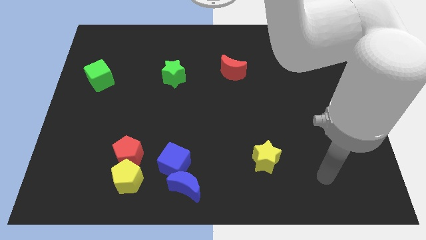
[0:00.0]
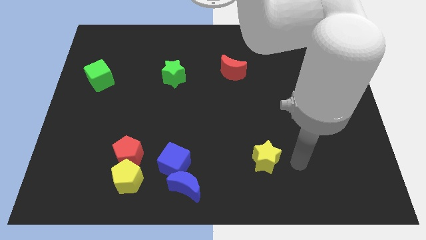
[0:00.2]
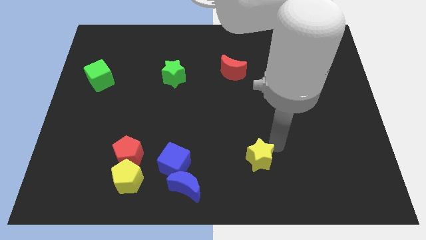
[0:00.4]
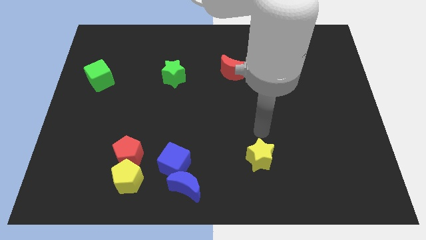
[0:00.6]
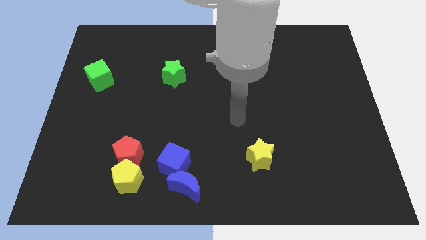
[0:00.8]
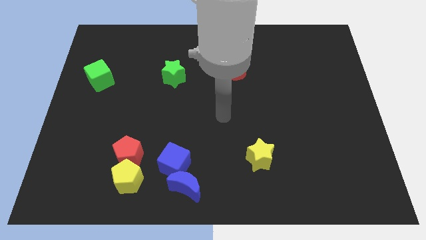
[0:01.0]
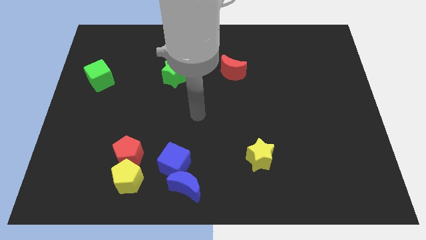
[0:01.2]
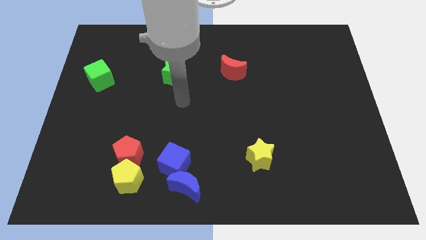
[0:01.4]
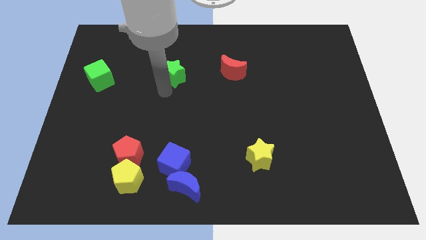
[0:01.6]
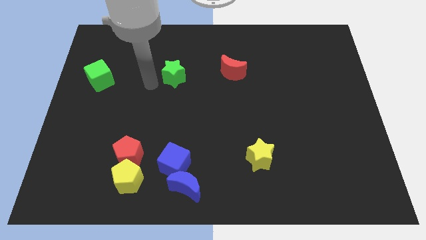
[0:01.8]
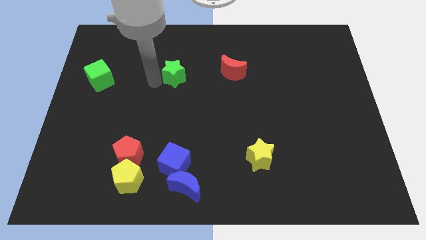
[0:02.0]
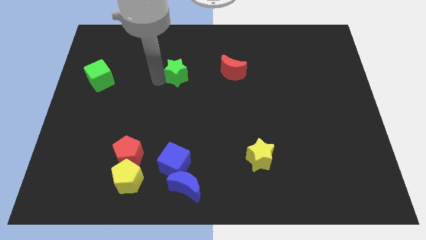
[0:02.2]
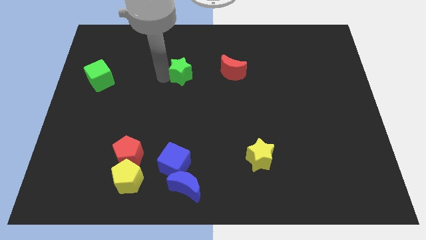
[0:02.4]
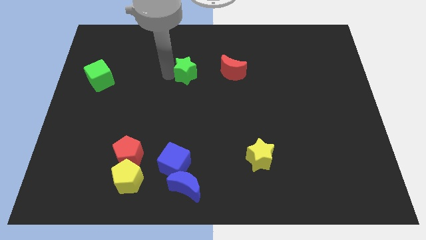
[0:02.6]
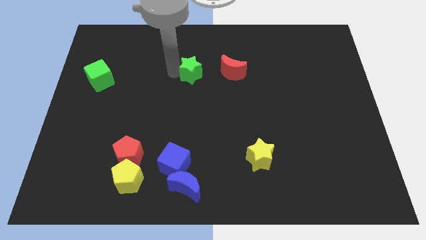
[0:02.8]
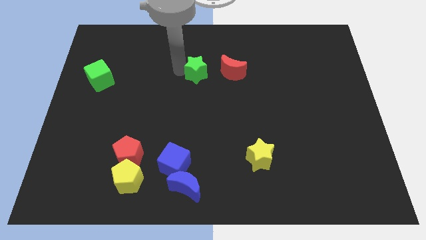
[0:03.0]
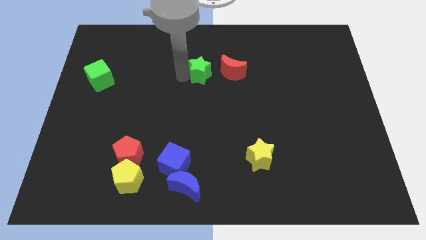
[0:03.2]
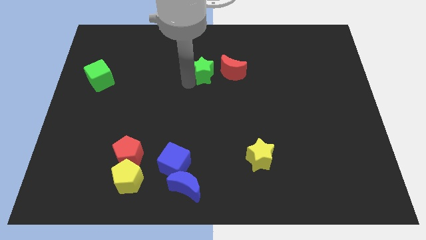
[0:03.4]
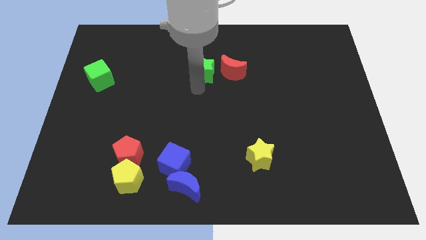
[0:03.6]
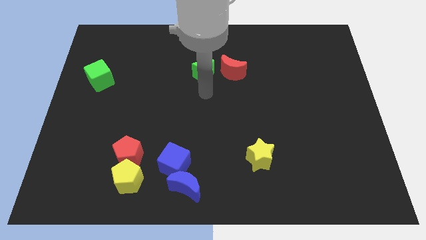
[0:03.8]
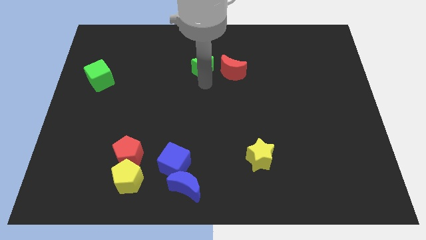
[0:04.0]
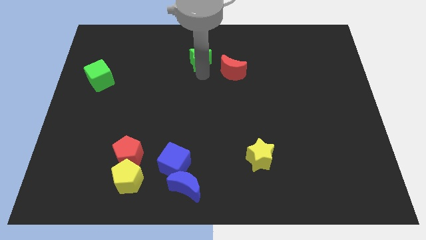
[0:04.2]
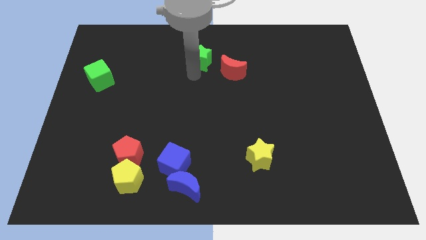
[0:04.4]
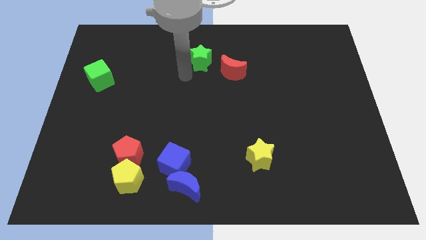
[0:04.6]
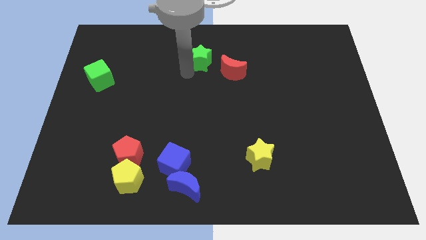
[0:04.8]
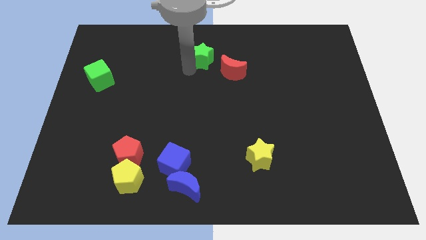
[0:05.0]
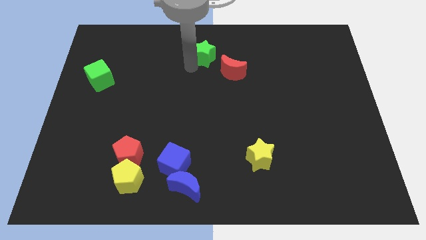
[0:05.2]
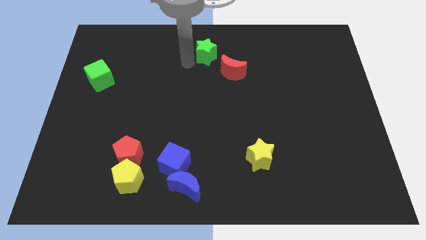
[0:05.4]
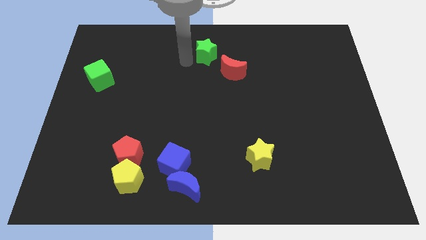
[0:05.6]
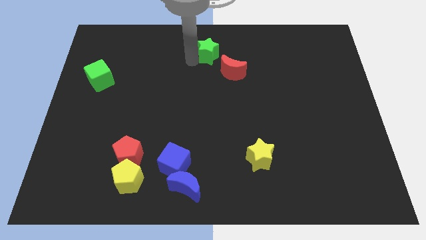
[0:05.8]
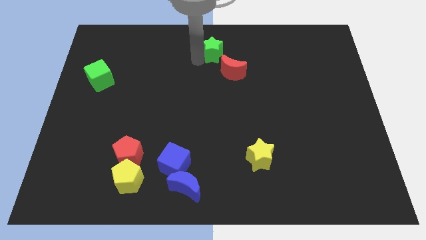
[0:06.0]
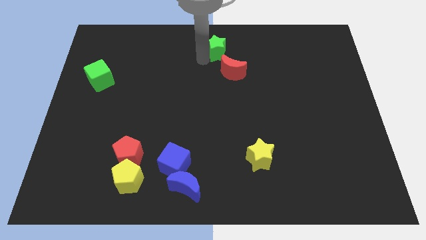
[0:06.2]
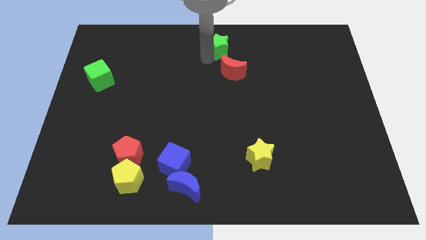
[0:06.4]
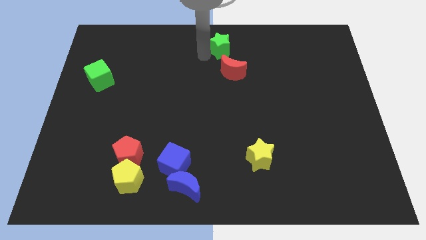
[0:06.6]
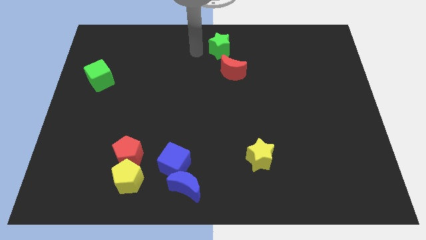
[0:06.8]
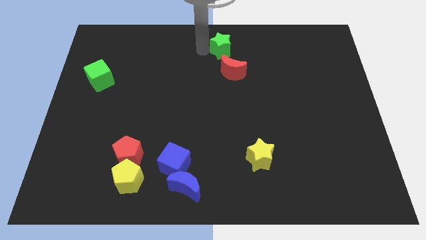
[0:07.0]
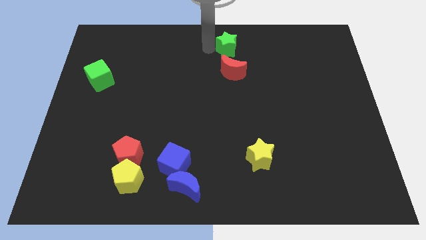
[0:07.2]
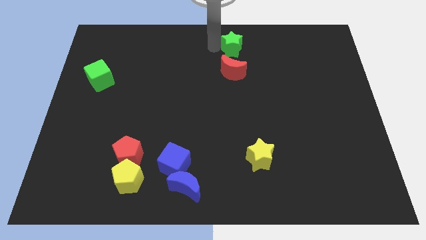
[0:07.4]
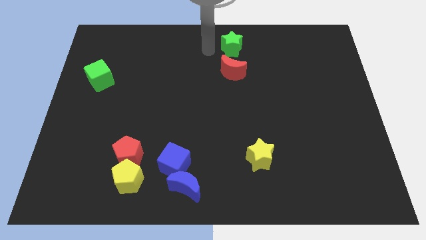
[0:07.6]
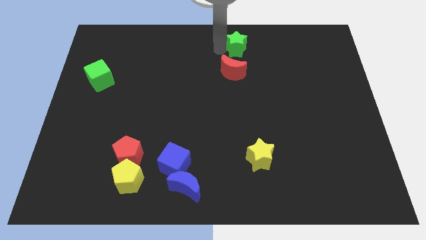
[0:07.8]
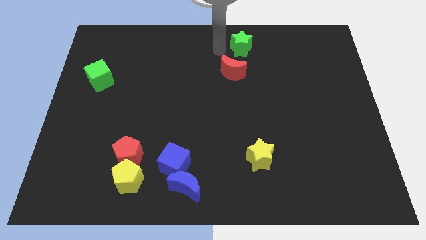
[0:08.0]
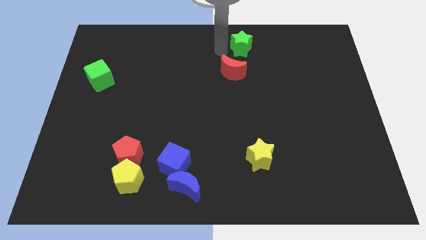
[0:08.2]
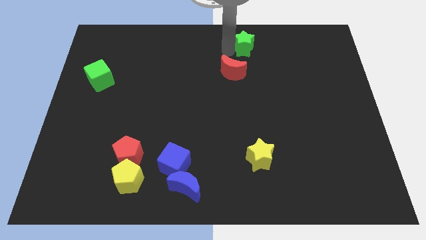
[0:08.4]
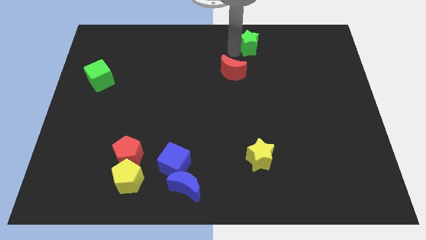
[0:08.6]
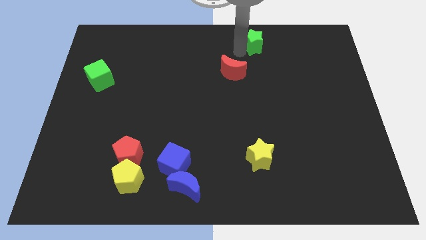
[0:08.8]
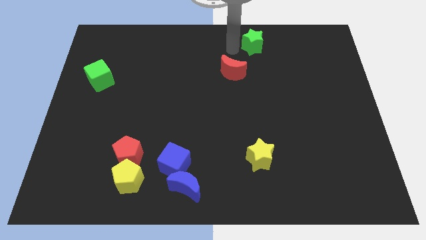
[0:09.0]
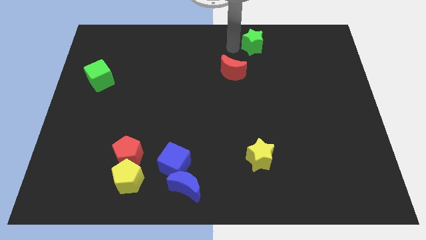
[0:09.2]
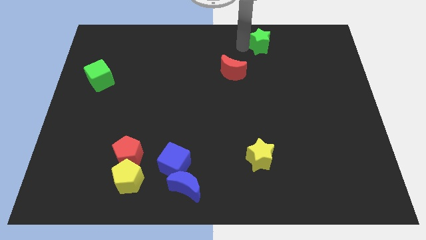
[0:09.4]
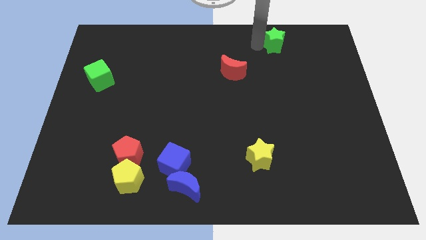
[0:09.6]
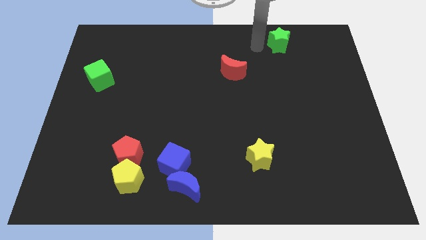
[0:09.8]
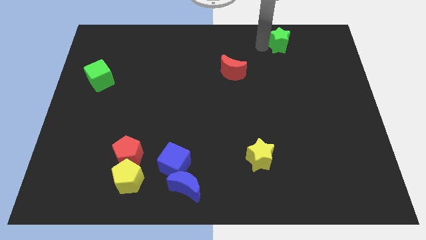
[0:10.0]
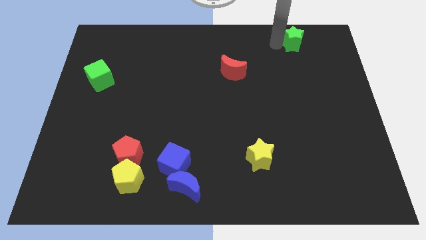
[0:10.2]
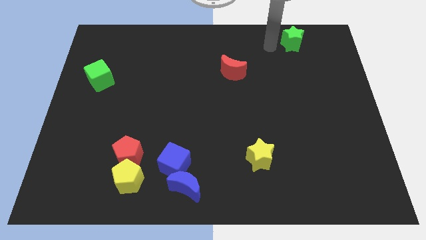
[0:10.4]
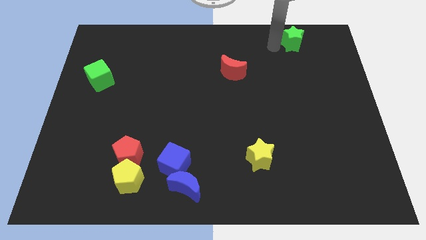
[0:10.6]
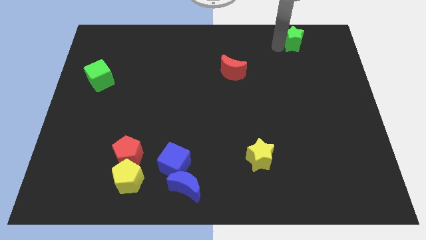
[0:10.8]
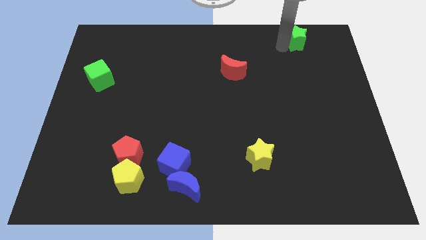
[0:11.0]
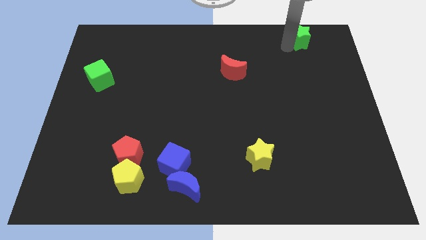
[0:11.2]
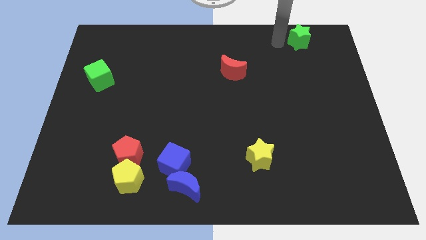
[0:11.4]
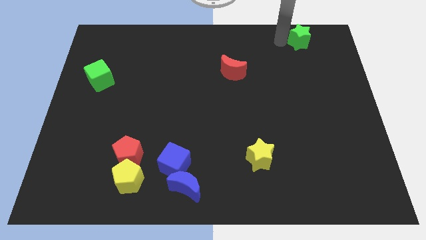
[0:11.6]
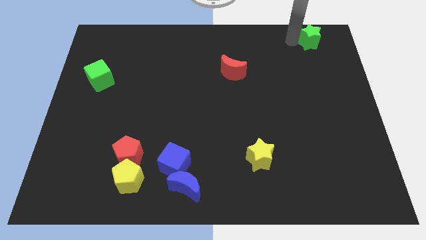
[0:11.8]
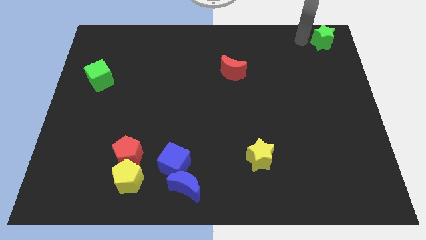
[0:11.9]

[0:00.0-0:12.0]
push the green star to the top right corner

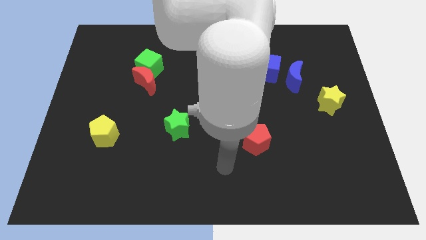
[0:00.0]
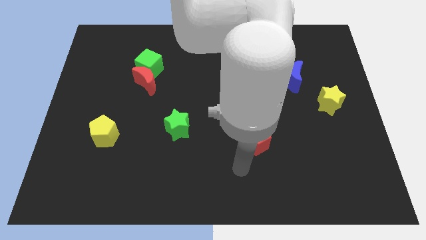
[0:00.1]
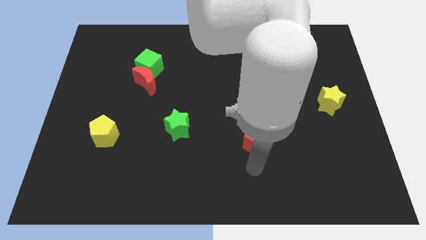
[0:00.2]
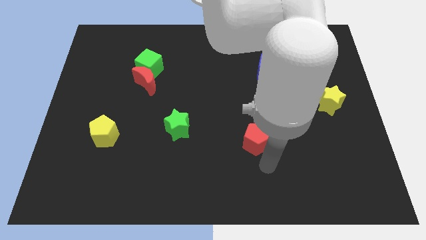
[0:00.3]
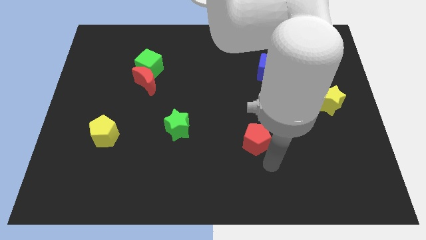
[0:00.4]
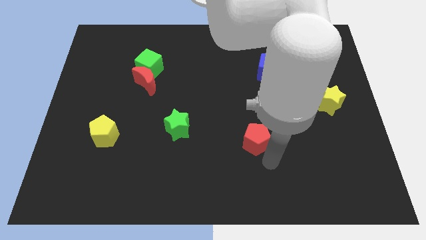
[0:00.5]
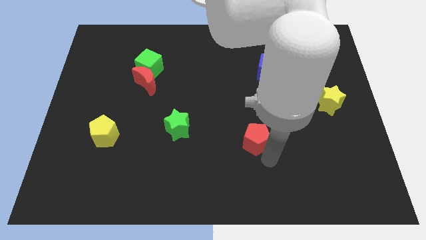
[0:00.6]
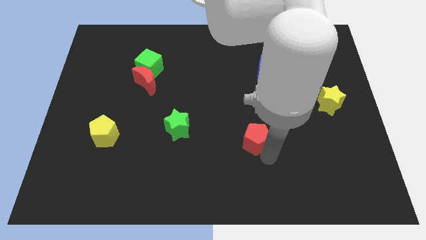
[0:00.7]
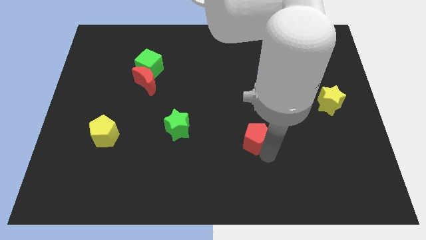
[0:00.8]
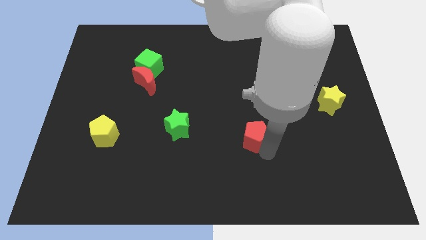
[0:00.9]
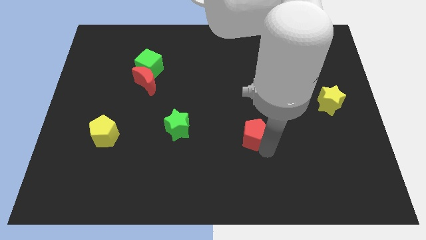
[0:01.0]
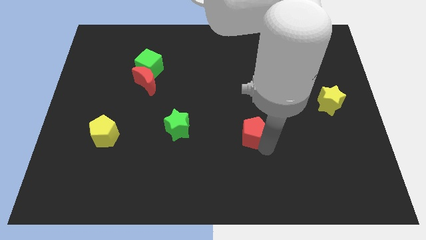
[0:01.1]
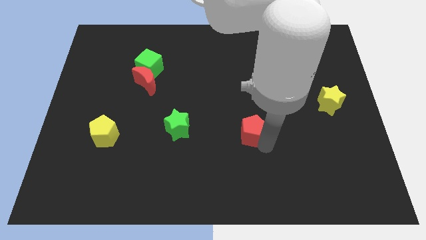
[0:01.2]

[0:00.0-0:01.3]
push the red pentagon to the middle of the board
